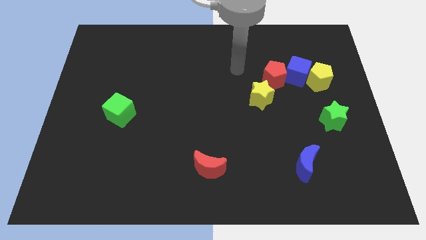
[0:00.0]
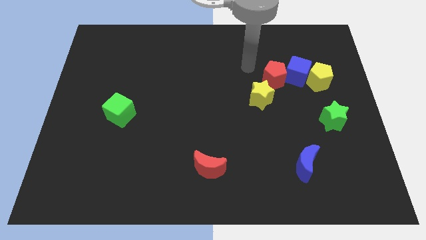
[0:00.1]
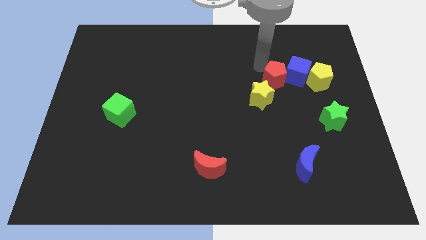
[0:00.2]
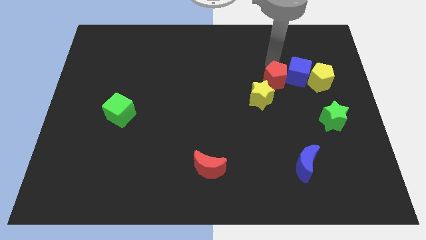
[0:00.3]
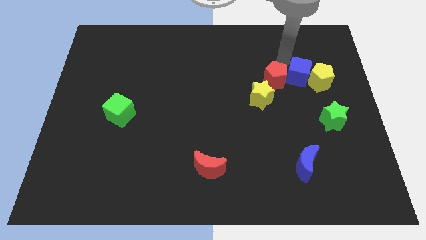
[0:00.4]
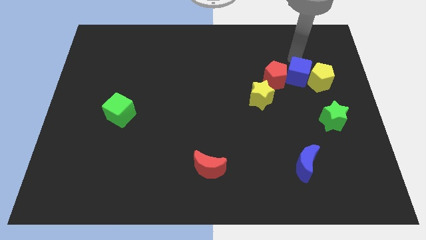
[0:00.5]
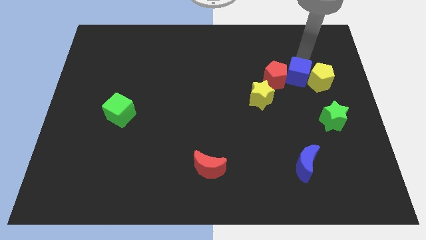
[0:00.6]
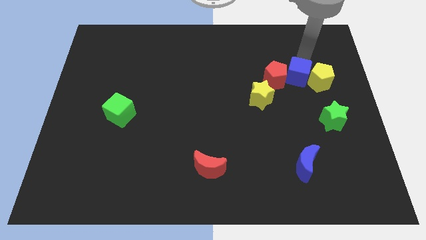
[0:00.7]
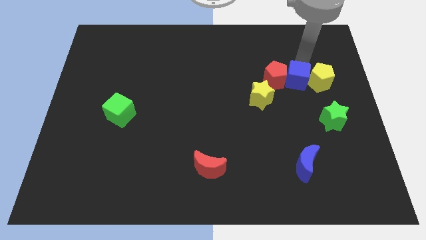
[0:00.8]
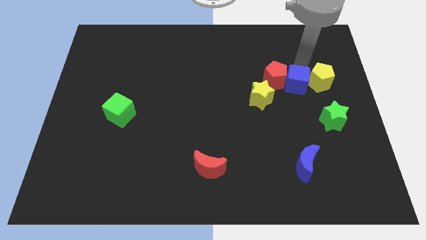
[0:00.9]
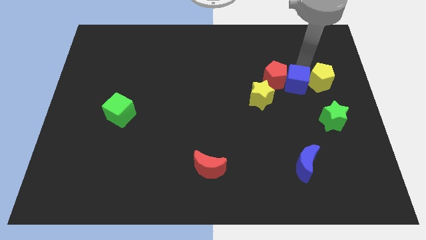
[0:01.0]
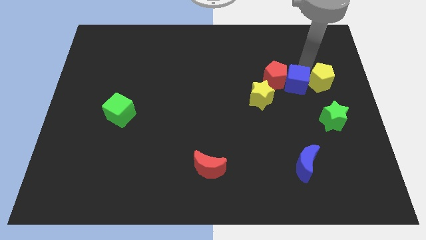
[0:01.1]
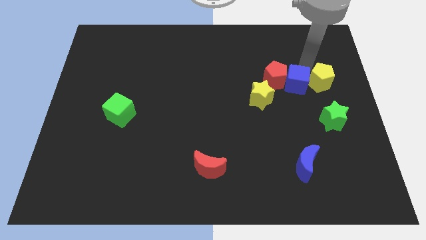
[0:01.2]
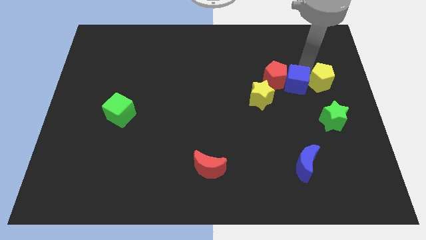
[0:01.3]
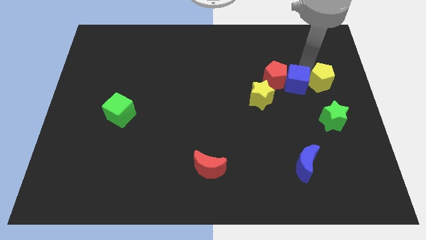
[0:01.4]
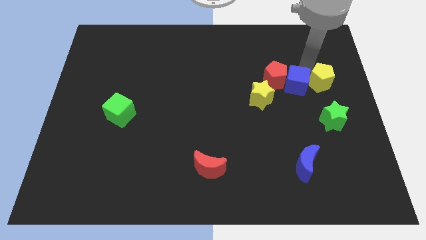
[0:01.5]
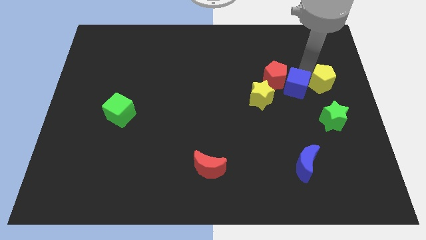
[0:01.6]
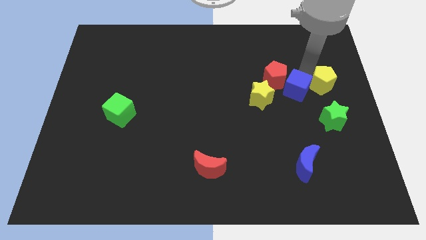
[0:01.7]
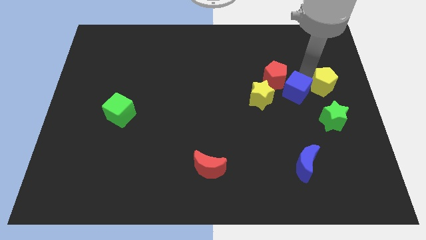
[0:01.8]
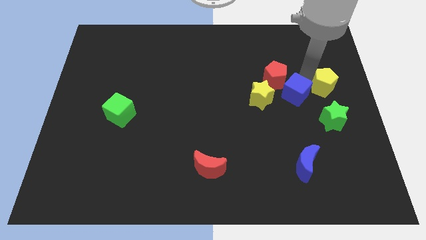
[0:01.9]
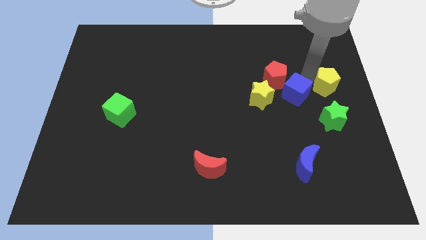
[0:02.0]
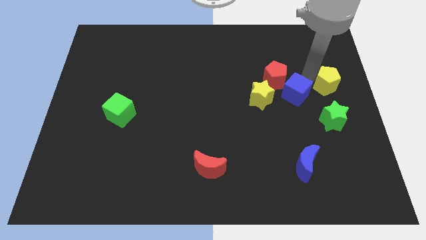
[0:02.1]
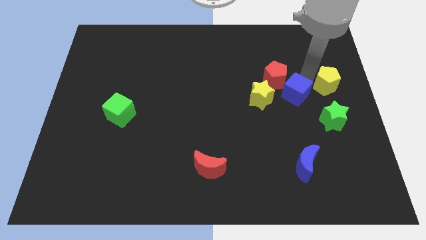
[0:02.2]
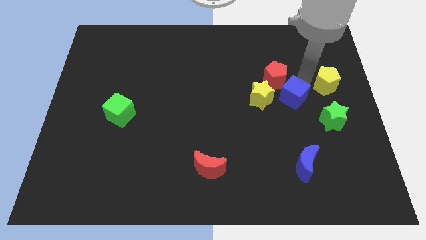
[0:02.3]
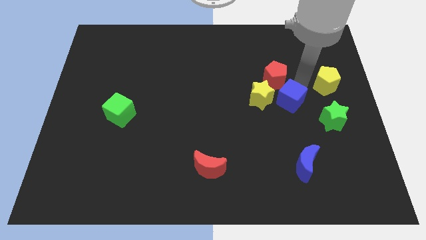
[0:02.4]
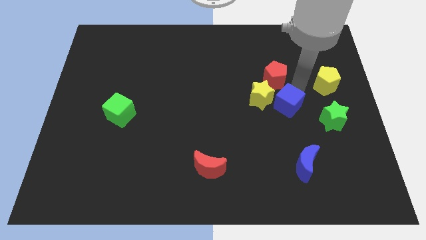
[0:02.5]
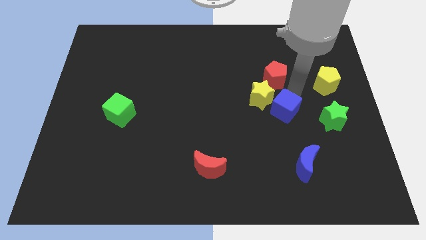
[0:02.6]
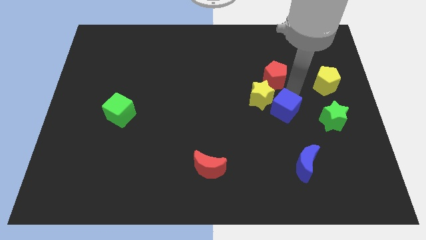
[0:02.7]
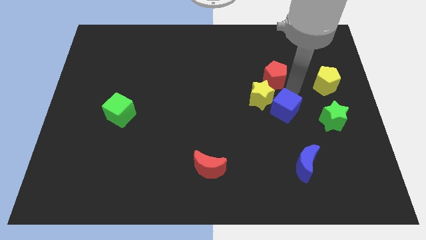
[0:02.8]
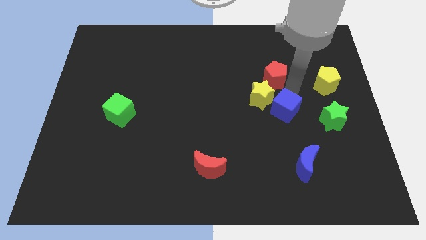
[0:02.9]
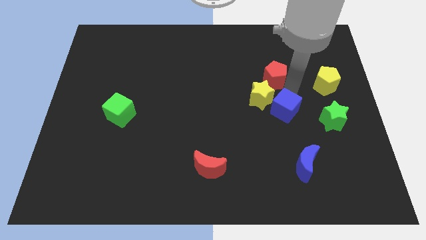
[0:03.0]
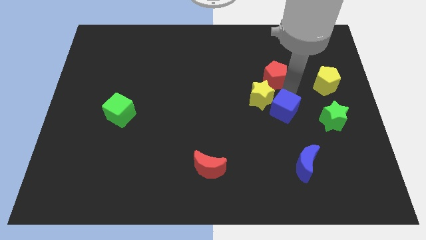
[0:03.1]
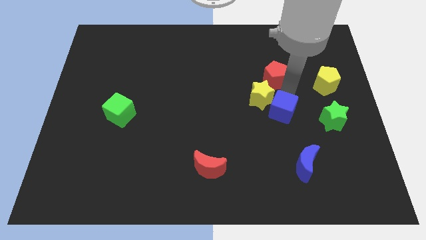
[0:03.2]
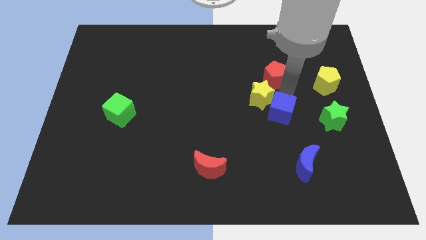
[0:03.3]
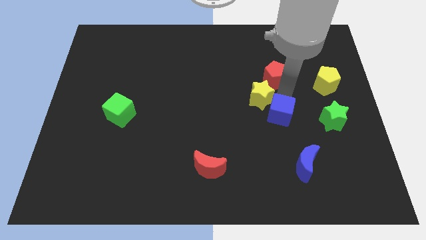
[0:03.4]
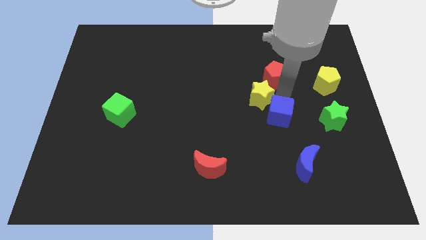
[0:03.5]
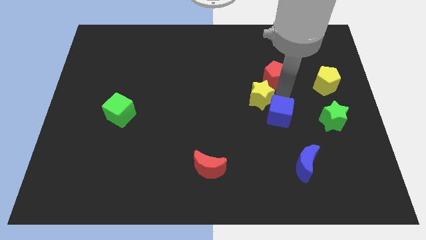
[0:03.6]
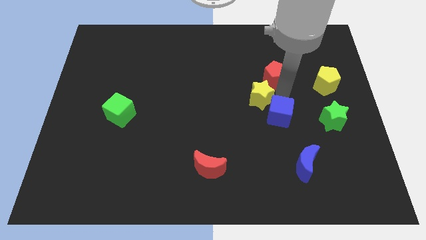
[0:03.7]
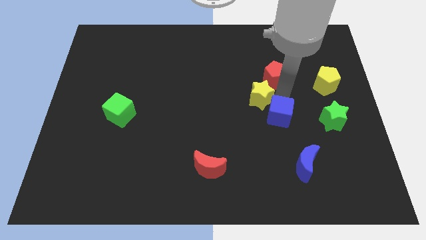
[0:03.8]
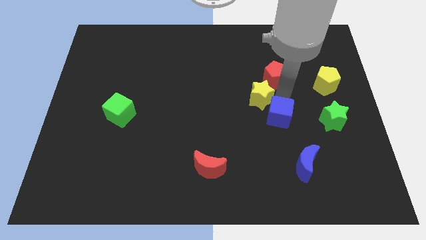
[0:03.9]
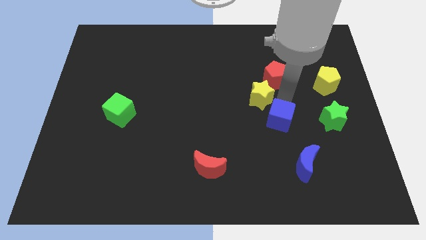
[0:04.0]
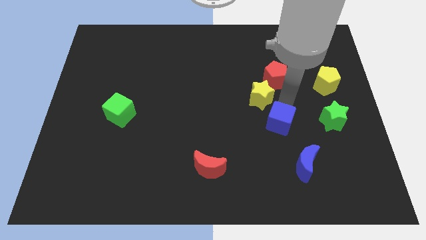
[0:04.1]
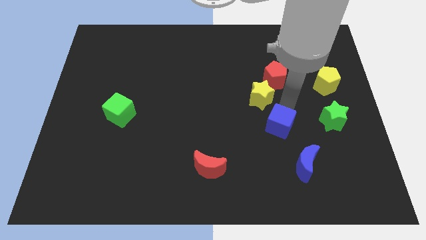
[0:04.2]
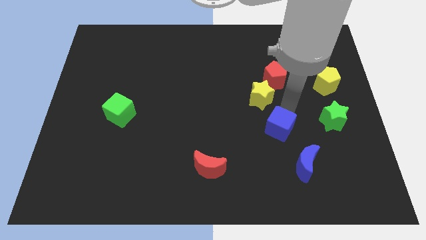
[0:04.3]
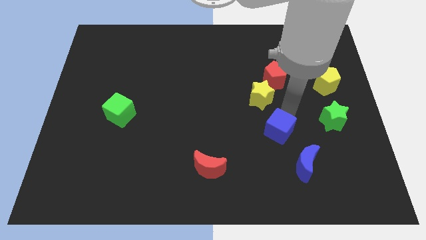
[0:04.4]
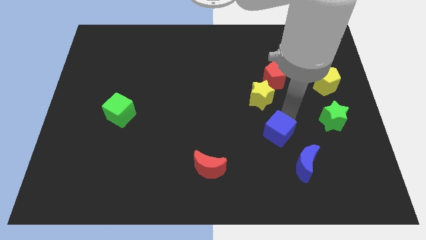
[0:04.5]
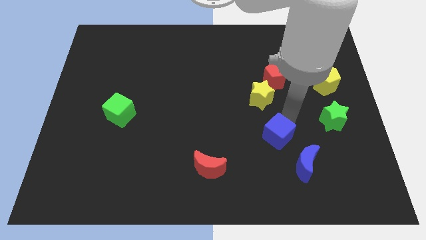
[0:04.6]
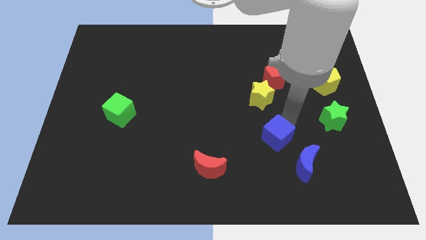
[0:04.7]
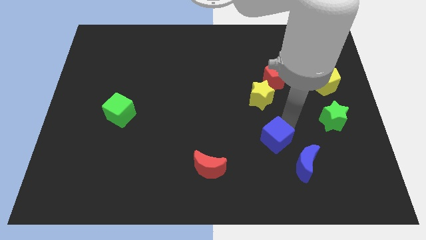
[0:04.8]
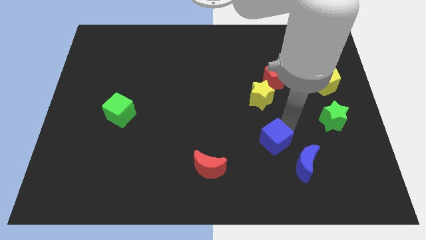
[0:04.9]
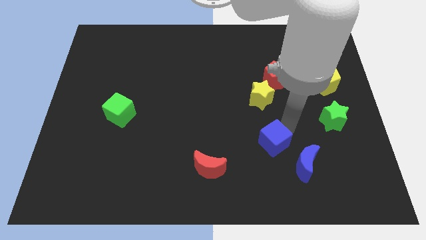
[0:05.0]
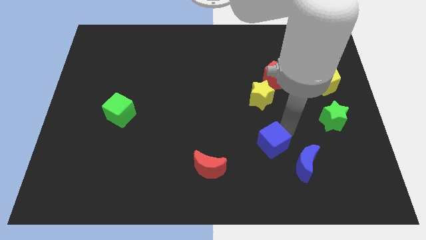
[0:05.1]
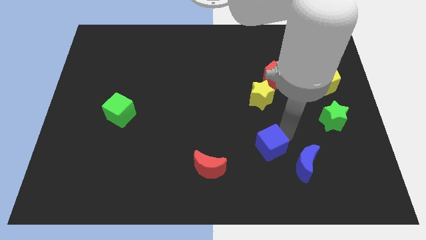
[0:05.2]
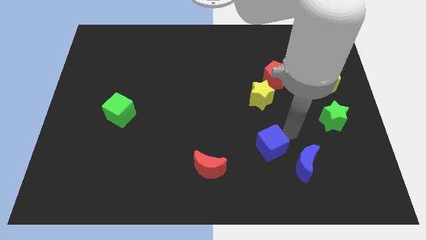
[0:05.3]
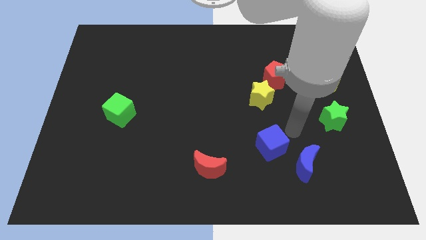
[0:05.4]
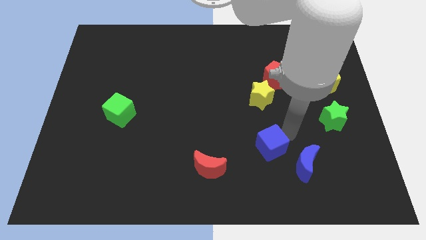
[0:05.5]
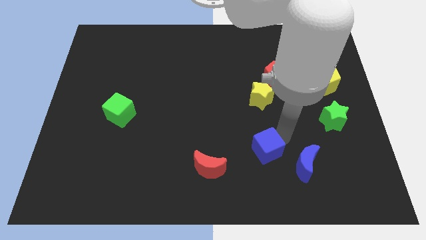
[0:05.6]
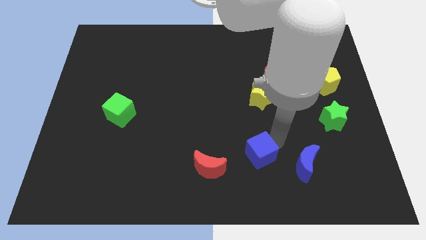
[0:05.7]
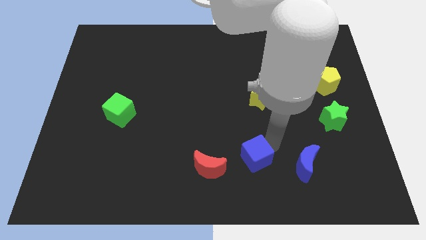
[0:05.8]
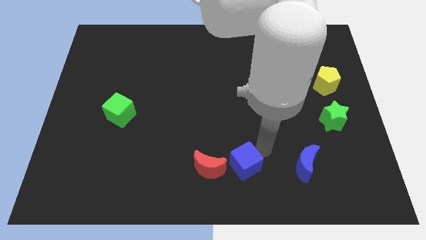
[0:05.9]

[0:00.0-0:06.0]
put the blue cube to the bottom
